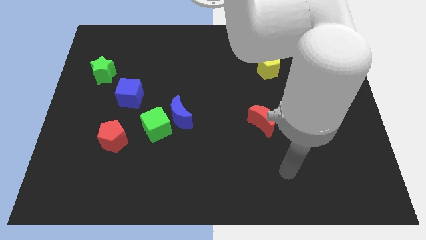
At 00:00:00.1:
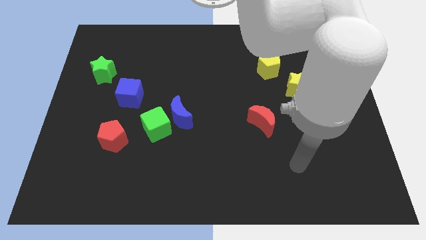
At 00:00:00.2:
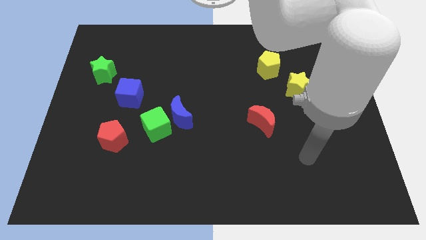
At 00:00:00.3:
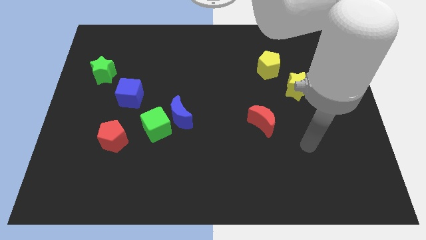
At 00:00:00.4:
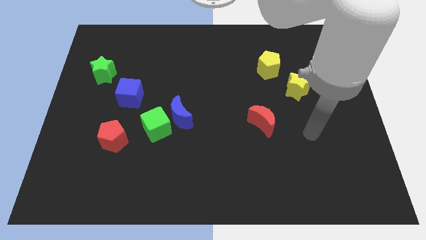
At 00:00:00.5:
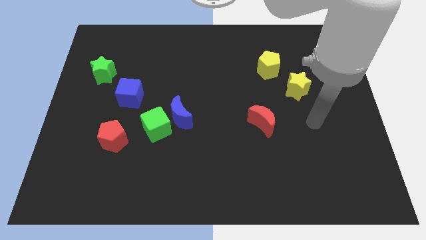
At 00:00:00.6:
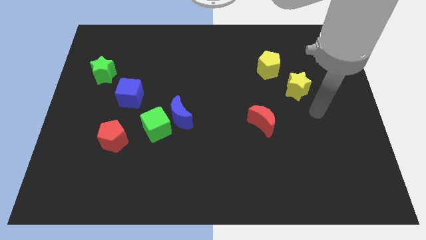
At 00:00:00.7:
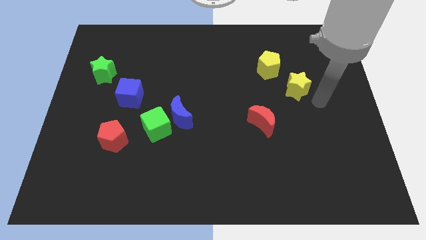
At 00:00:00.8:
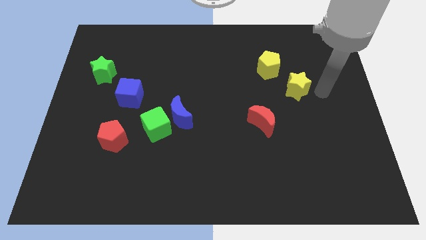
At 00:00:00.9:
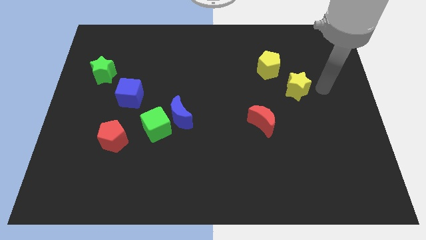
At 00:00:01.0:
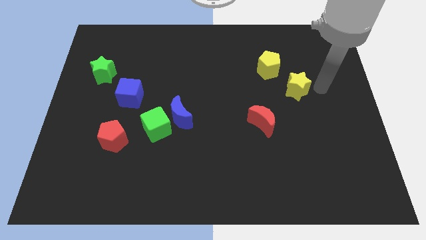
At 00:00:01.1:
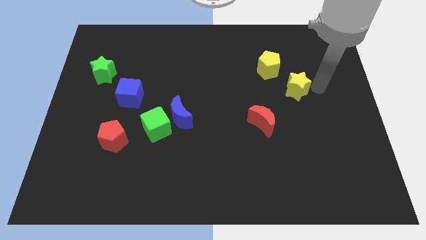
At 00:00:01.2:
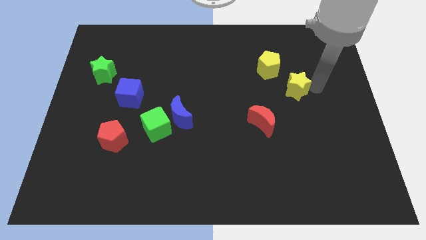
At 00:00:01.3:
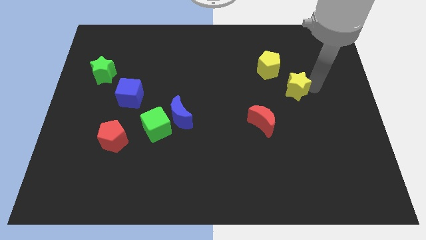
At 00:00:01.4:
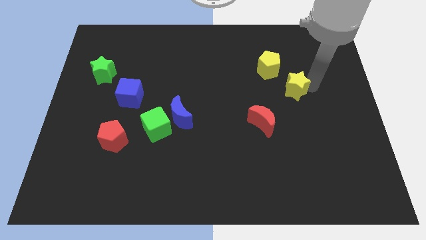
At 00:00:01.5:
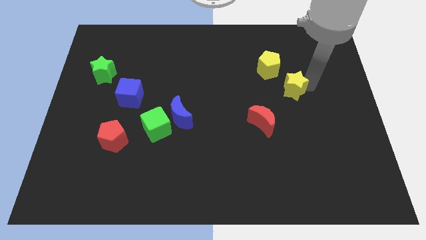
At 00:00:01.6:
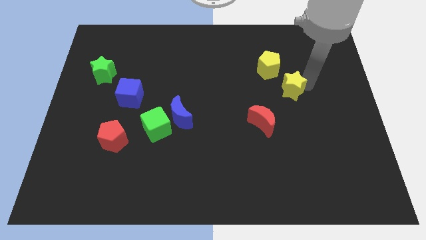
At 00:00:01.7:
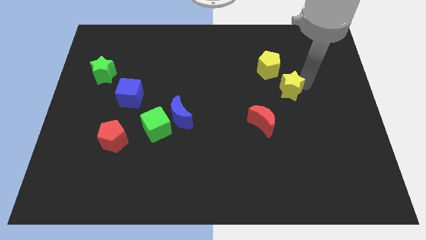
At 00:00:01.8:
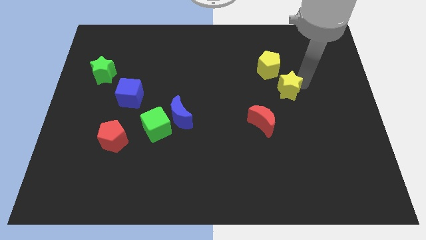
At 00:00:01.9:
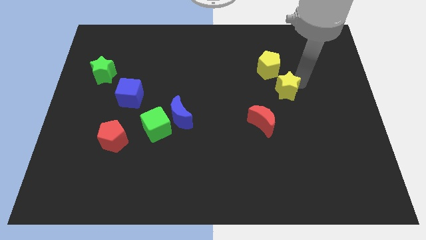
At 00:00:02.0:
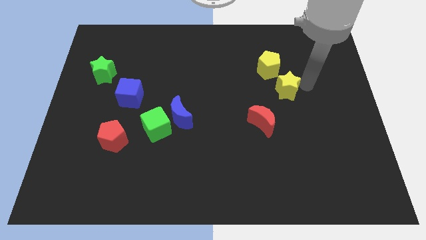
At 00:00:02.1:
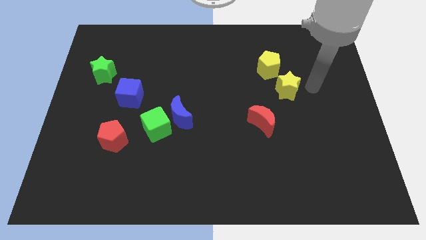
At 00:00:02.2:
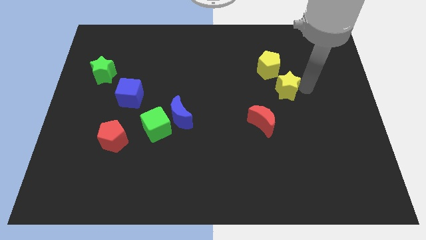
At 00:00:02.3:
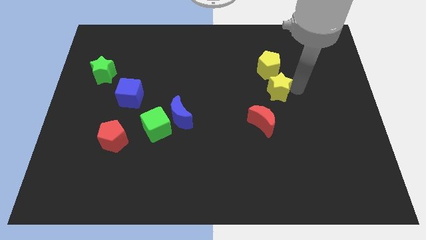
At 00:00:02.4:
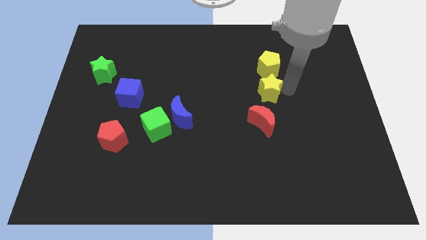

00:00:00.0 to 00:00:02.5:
slide the yellow star somewhat to the left

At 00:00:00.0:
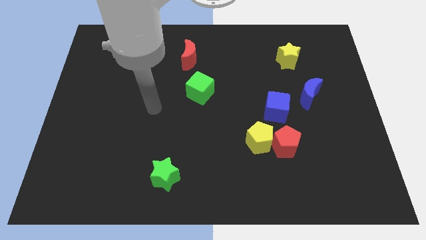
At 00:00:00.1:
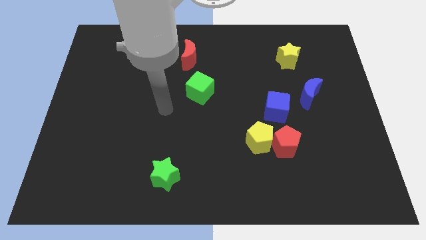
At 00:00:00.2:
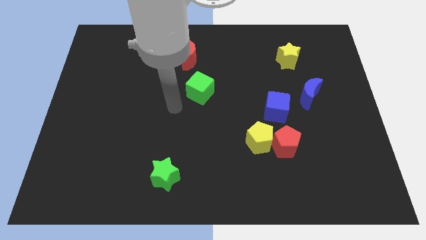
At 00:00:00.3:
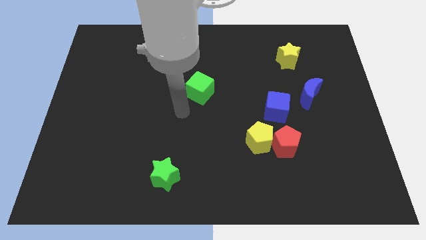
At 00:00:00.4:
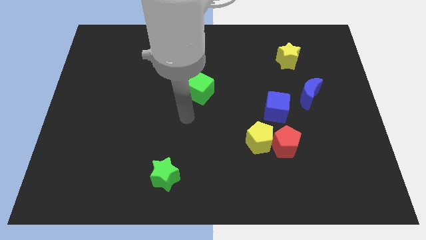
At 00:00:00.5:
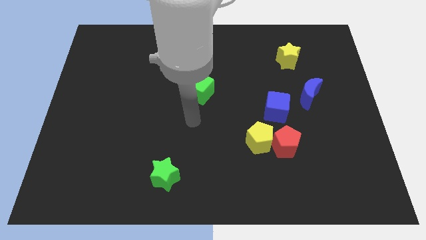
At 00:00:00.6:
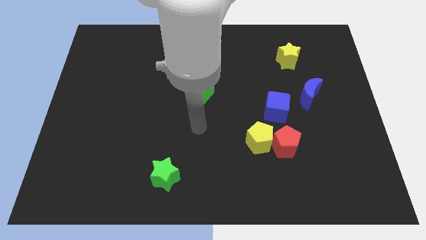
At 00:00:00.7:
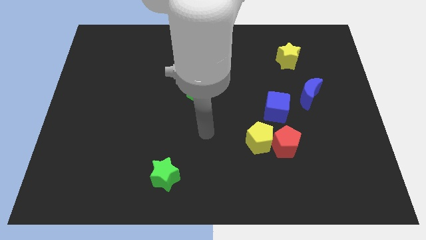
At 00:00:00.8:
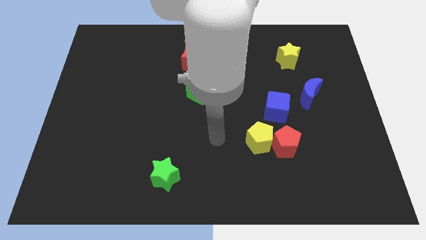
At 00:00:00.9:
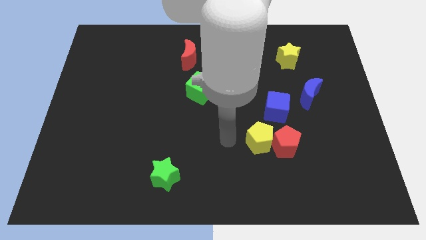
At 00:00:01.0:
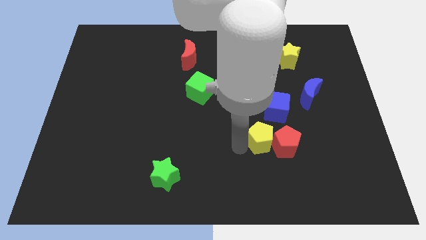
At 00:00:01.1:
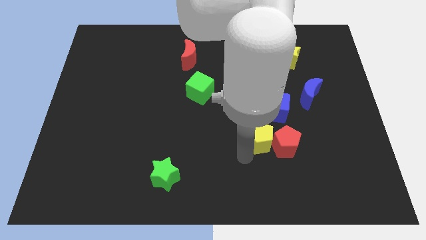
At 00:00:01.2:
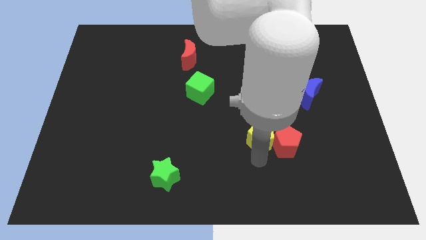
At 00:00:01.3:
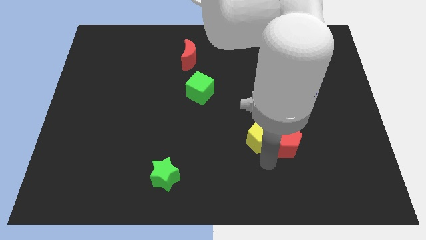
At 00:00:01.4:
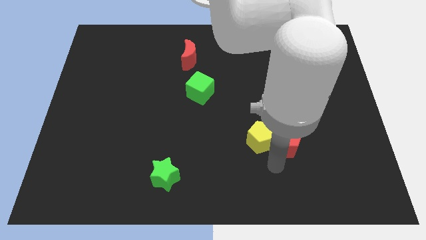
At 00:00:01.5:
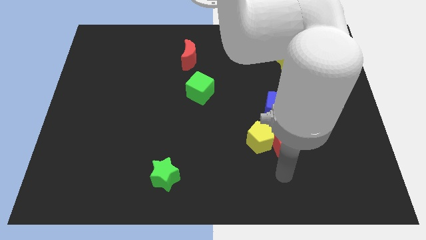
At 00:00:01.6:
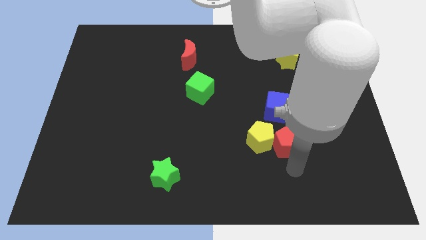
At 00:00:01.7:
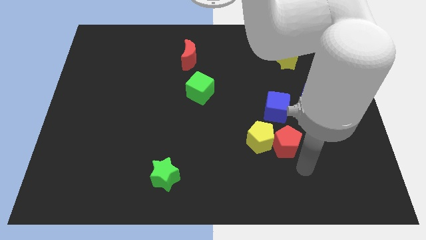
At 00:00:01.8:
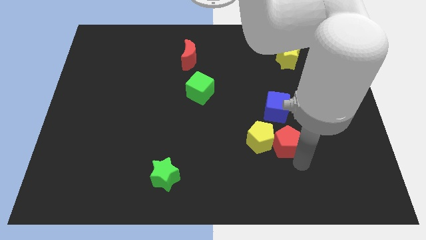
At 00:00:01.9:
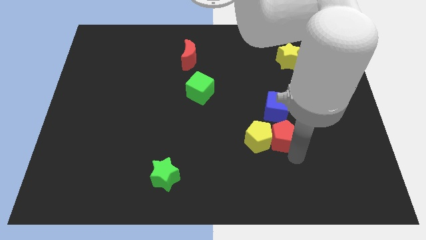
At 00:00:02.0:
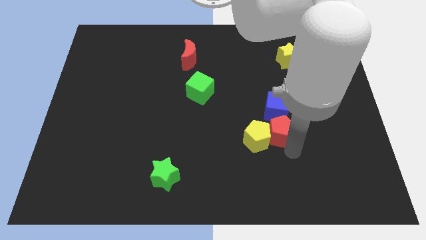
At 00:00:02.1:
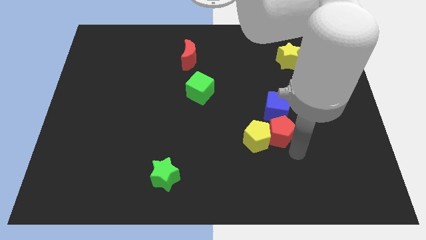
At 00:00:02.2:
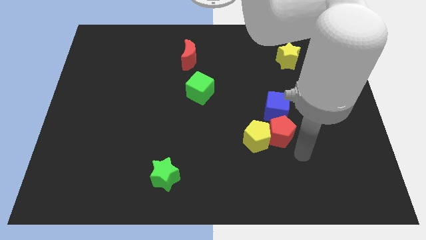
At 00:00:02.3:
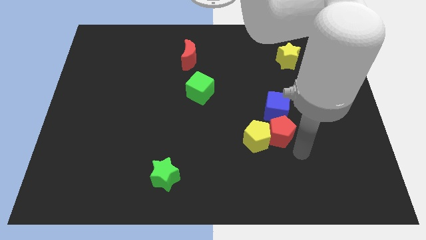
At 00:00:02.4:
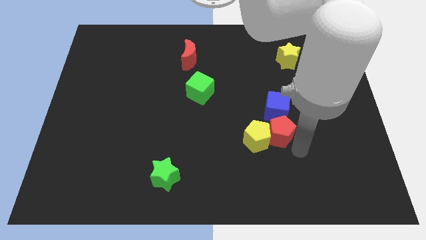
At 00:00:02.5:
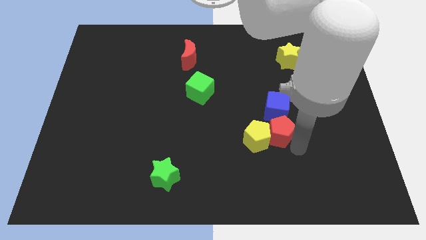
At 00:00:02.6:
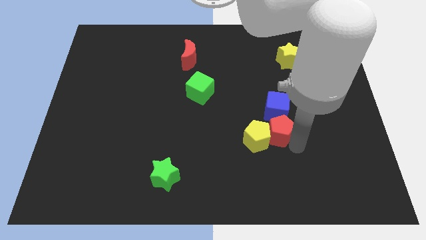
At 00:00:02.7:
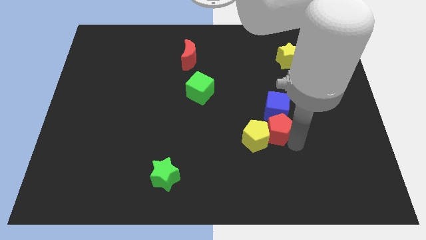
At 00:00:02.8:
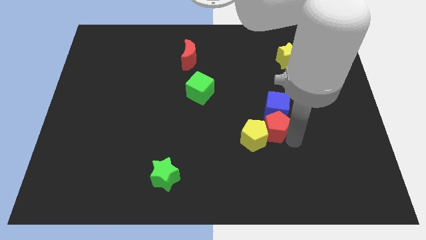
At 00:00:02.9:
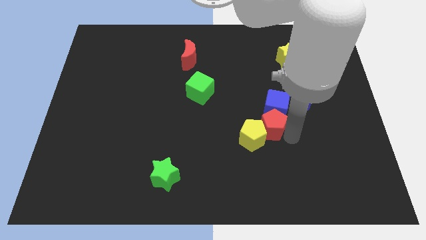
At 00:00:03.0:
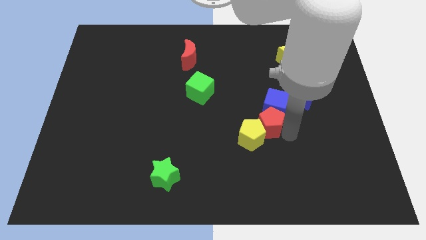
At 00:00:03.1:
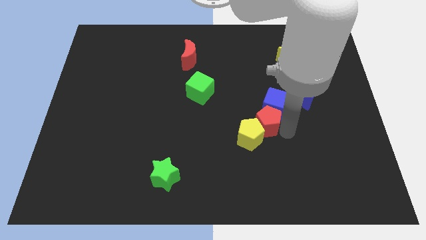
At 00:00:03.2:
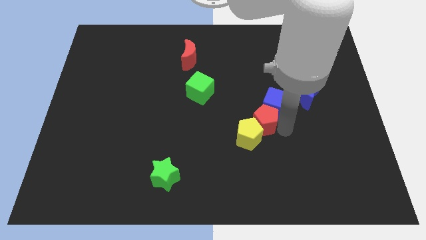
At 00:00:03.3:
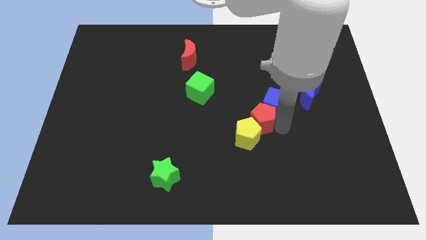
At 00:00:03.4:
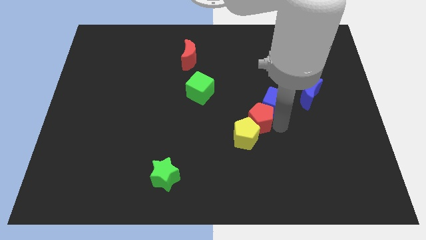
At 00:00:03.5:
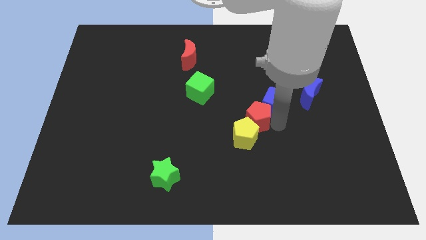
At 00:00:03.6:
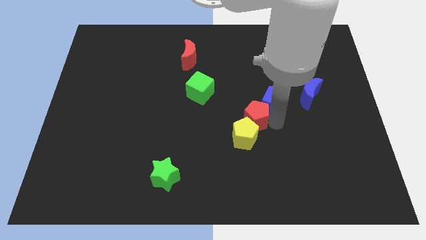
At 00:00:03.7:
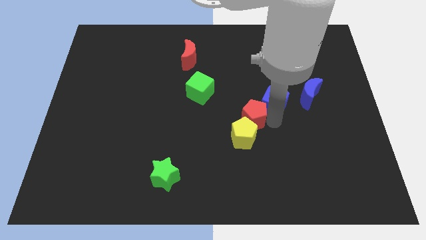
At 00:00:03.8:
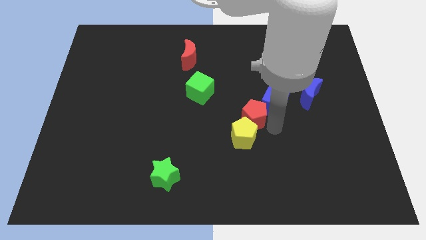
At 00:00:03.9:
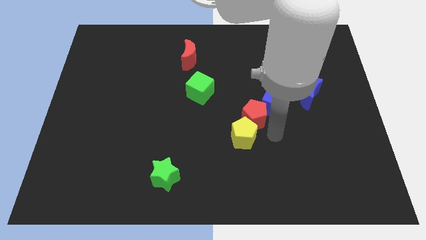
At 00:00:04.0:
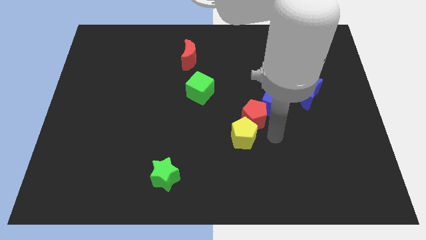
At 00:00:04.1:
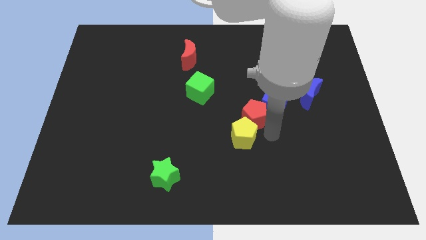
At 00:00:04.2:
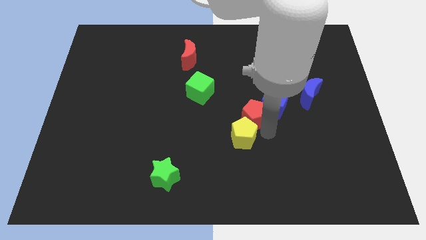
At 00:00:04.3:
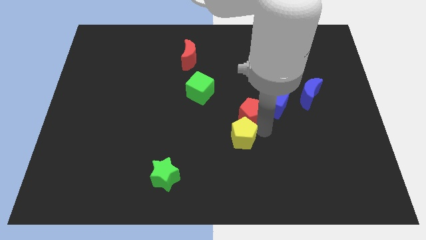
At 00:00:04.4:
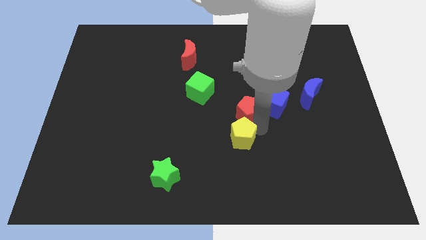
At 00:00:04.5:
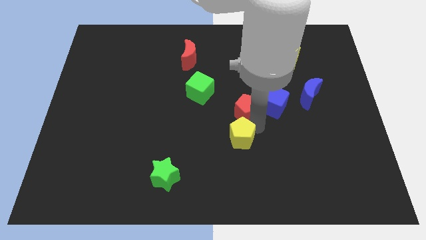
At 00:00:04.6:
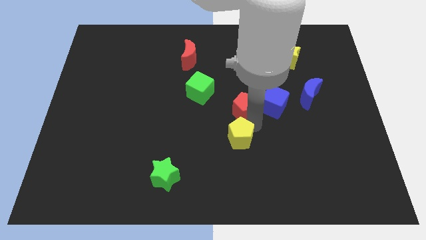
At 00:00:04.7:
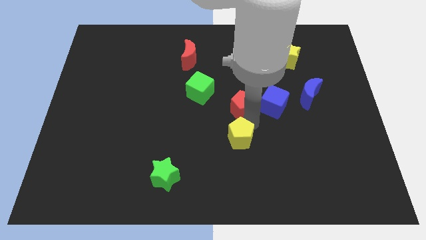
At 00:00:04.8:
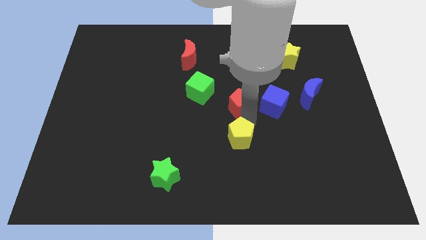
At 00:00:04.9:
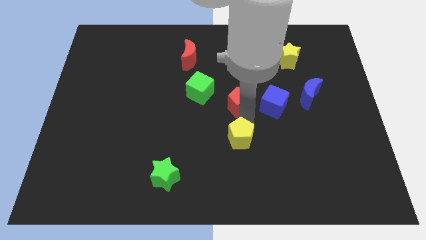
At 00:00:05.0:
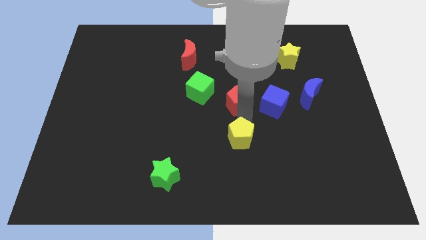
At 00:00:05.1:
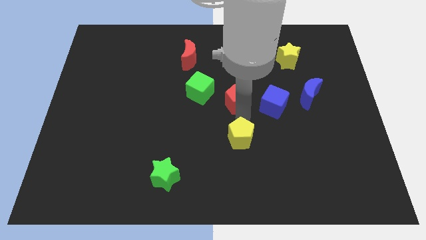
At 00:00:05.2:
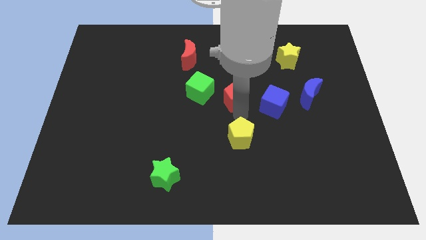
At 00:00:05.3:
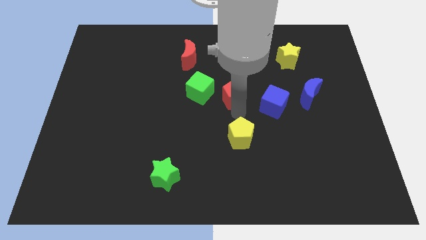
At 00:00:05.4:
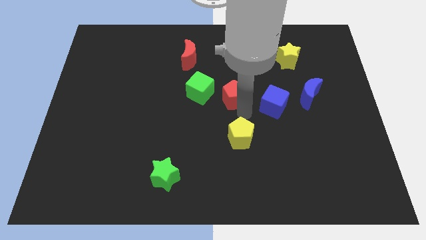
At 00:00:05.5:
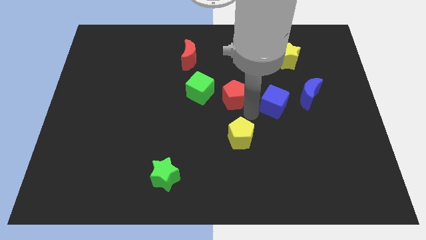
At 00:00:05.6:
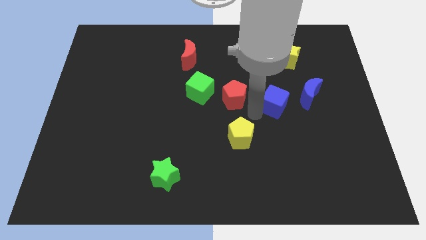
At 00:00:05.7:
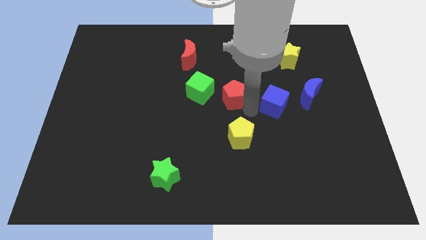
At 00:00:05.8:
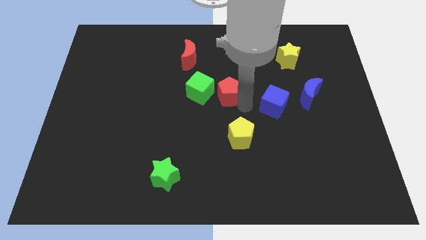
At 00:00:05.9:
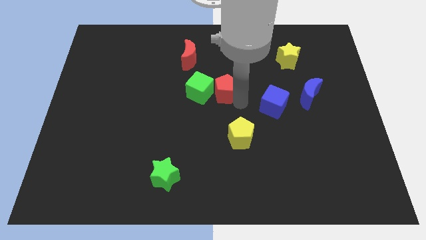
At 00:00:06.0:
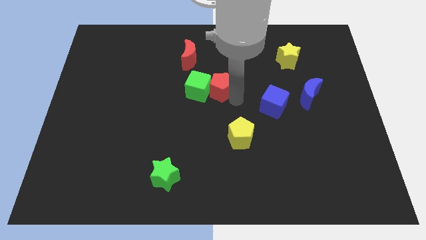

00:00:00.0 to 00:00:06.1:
slide the red pentagon diagonally up and left
